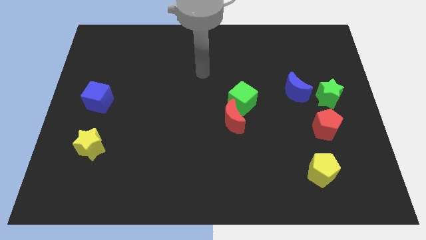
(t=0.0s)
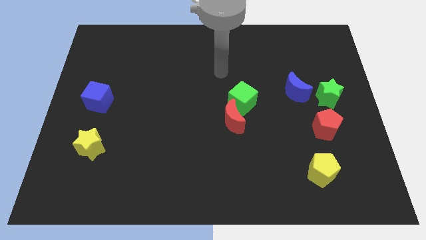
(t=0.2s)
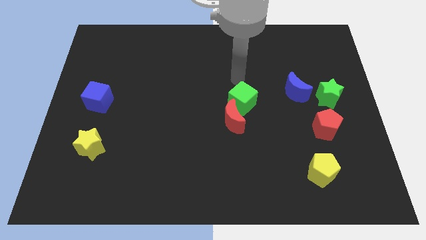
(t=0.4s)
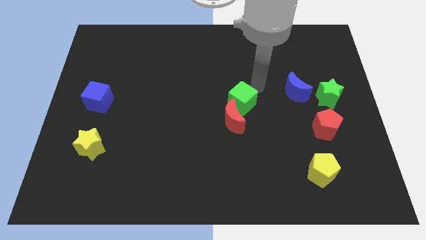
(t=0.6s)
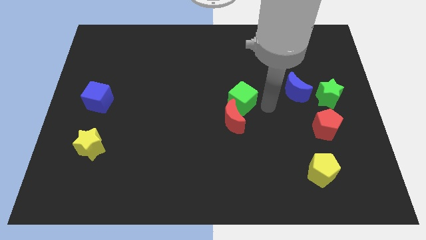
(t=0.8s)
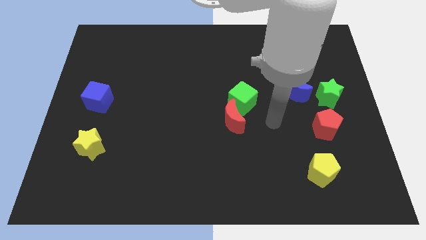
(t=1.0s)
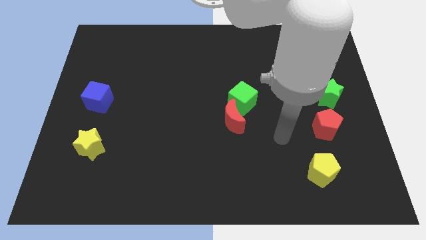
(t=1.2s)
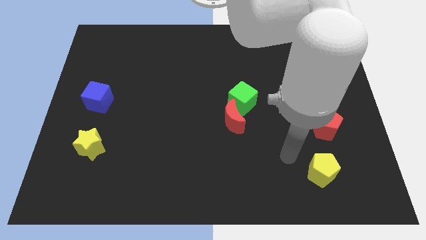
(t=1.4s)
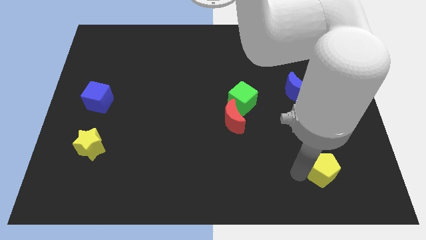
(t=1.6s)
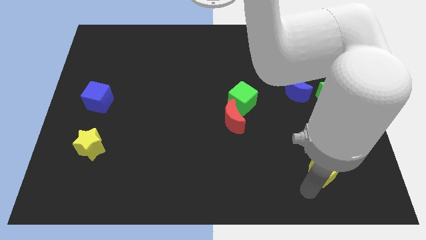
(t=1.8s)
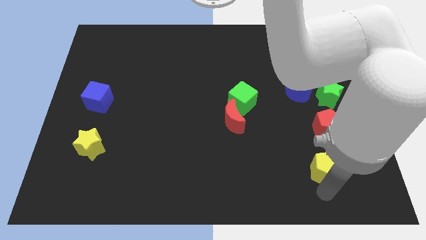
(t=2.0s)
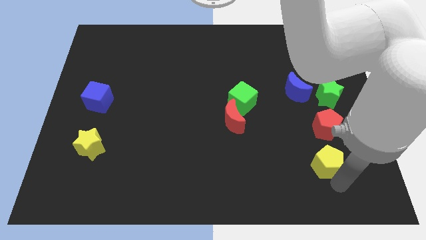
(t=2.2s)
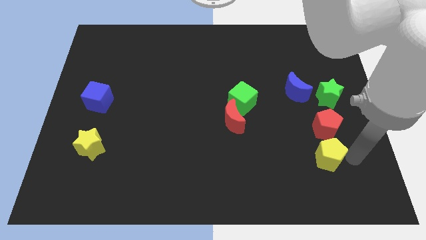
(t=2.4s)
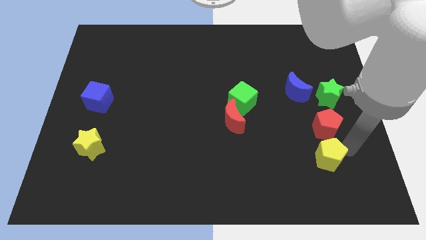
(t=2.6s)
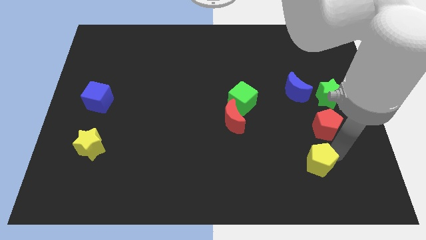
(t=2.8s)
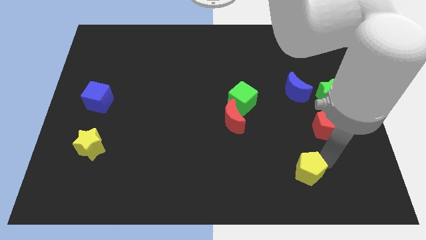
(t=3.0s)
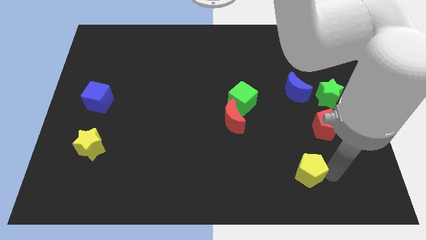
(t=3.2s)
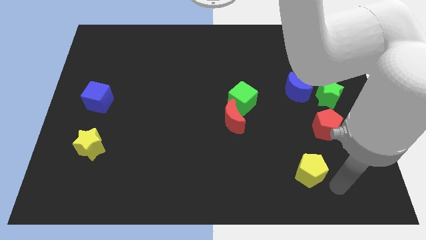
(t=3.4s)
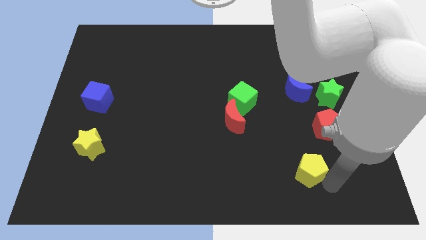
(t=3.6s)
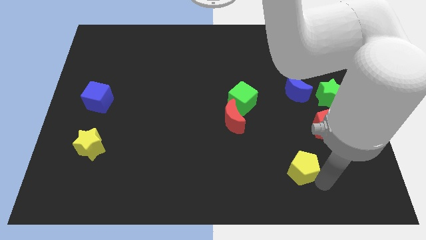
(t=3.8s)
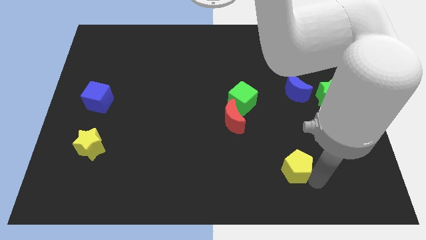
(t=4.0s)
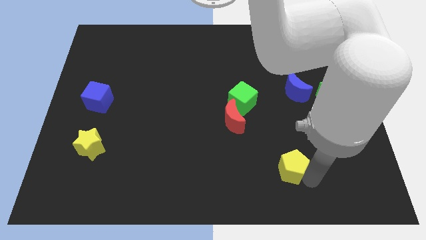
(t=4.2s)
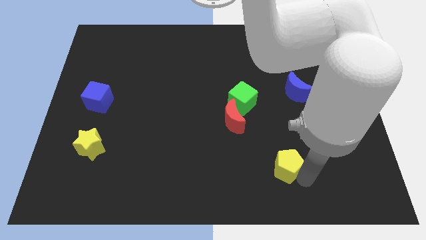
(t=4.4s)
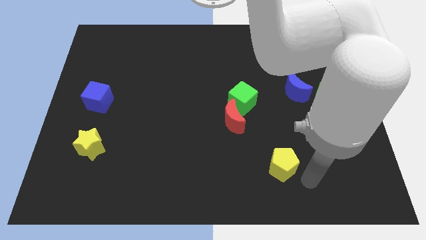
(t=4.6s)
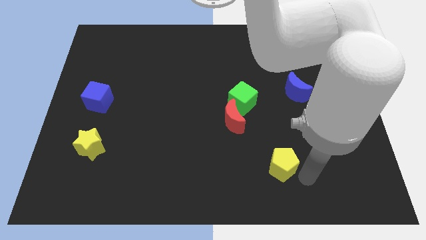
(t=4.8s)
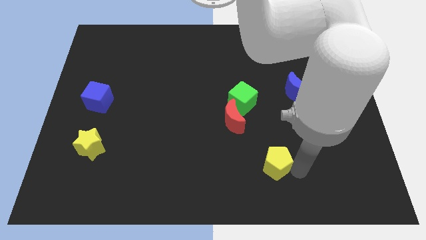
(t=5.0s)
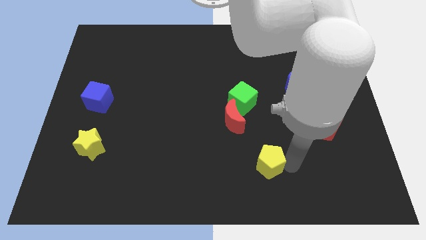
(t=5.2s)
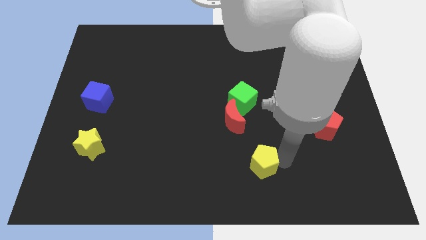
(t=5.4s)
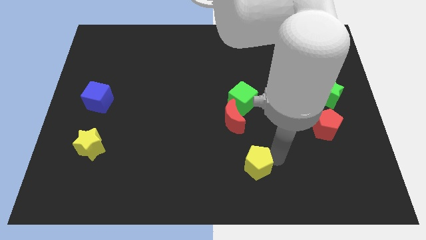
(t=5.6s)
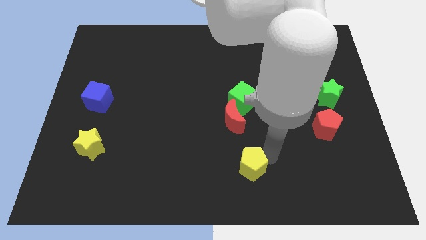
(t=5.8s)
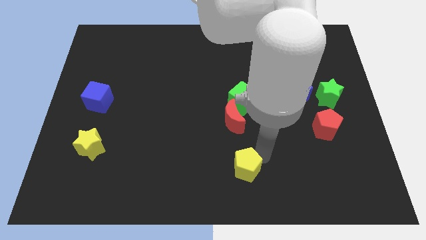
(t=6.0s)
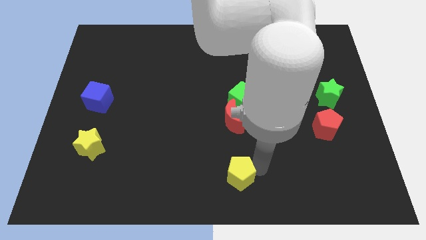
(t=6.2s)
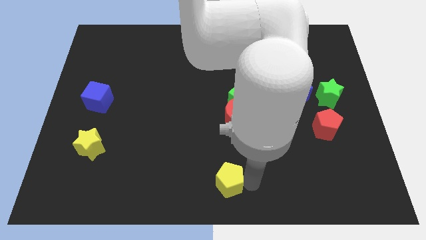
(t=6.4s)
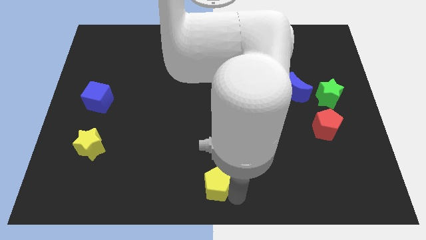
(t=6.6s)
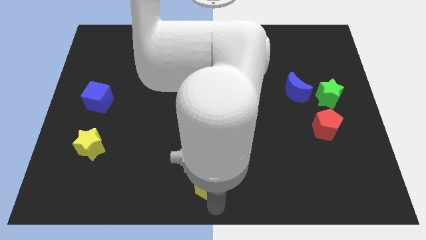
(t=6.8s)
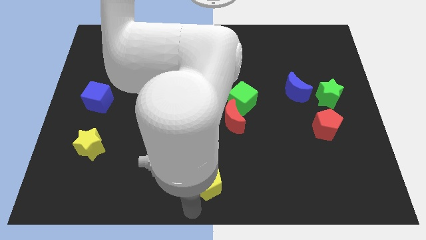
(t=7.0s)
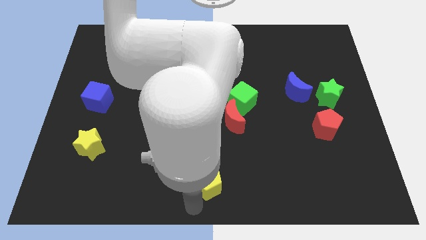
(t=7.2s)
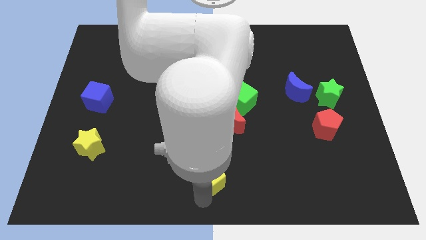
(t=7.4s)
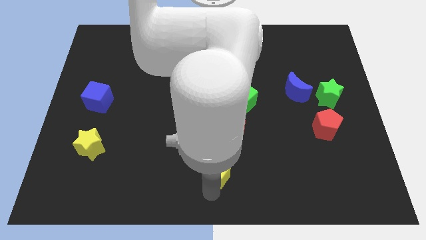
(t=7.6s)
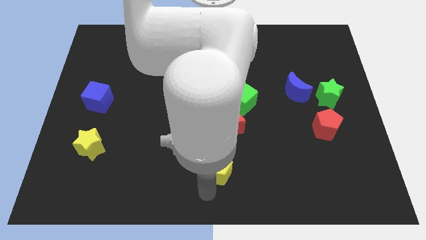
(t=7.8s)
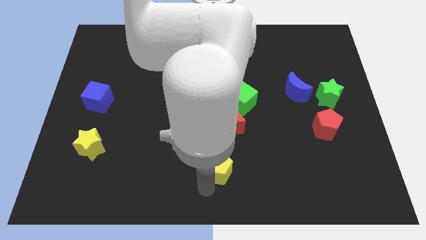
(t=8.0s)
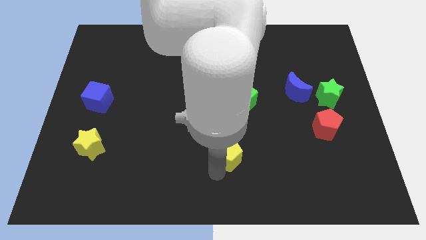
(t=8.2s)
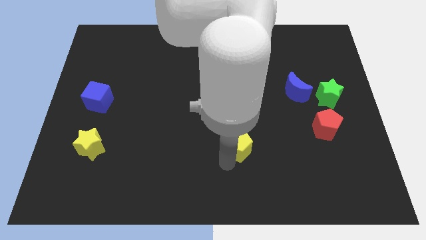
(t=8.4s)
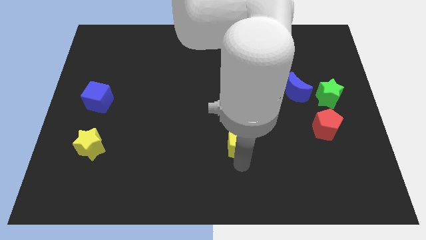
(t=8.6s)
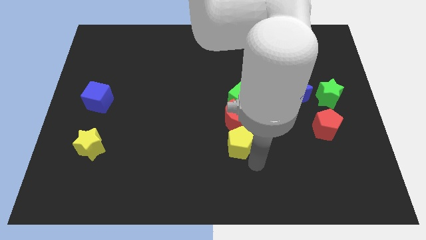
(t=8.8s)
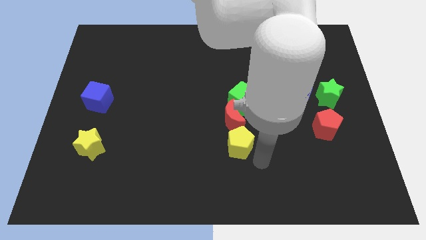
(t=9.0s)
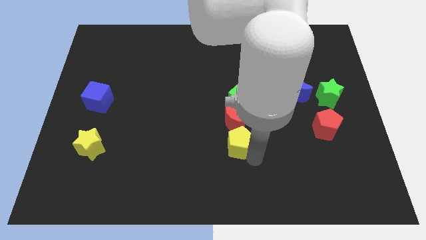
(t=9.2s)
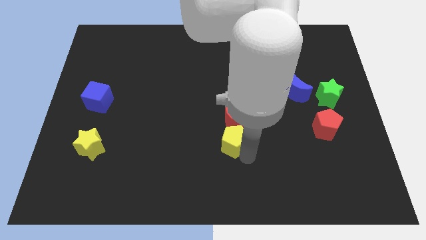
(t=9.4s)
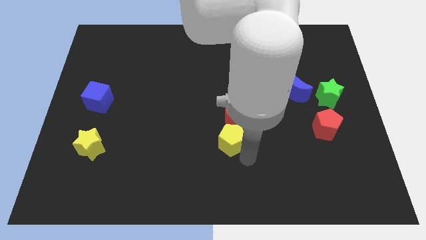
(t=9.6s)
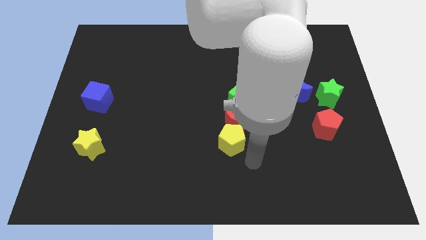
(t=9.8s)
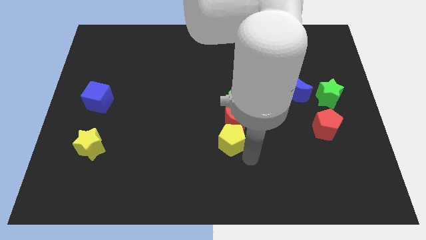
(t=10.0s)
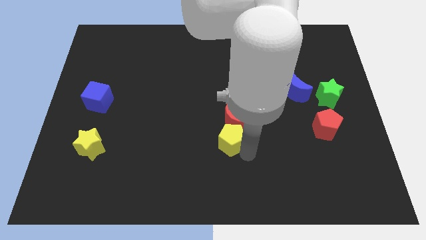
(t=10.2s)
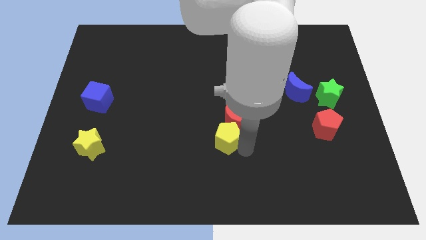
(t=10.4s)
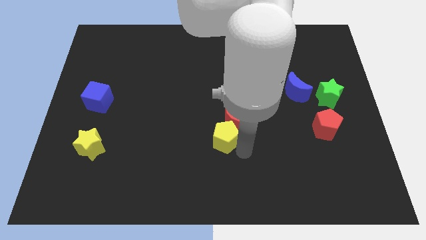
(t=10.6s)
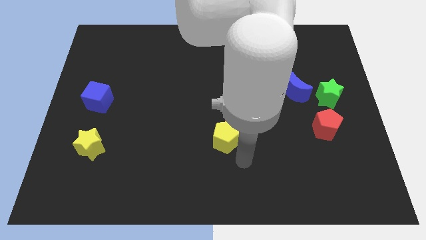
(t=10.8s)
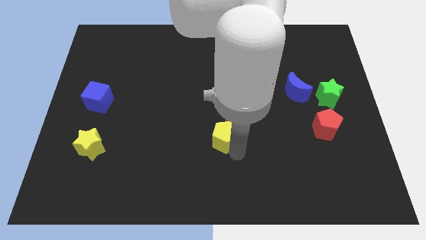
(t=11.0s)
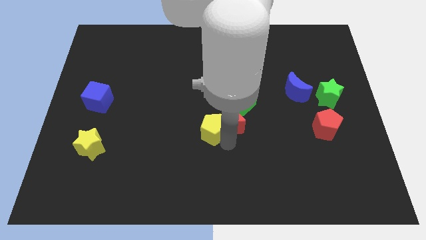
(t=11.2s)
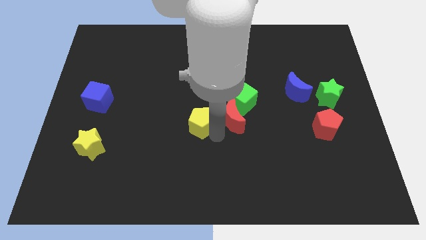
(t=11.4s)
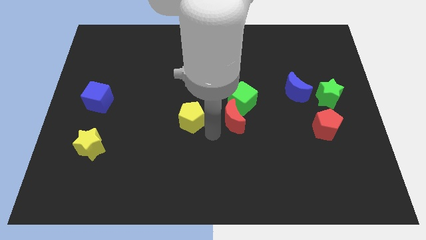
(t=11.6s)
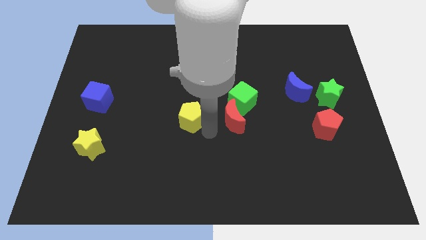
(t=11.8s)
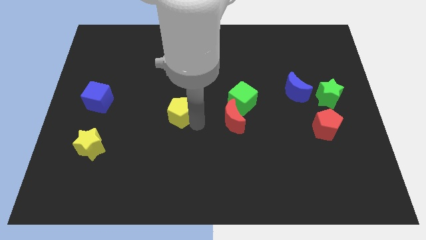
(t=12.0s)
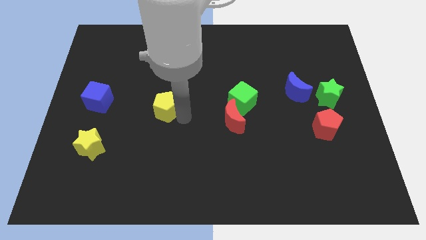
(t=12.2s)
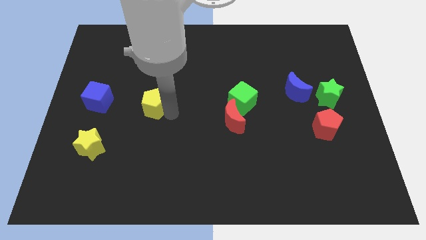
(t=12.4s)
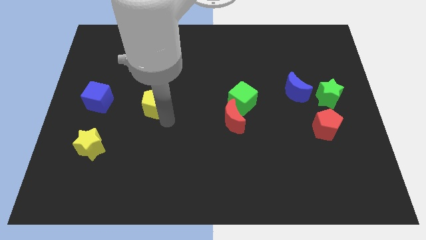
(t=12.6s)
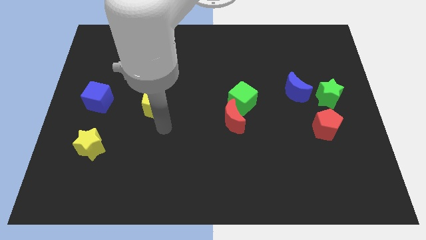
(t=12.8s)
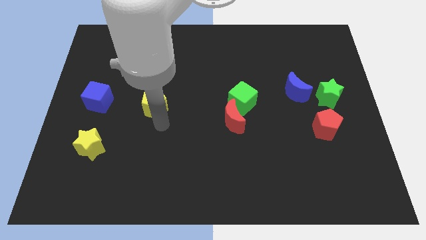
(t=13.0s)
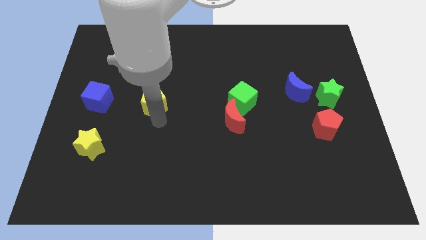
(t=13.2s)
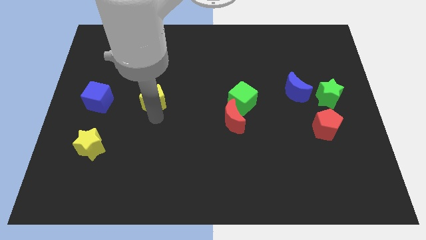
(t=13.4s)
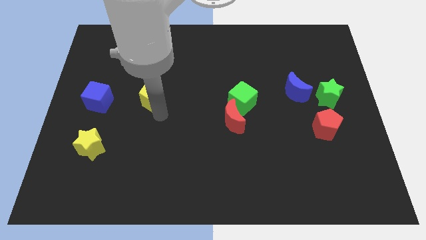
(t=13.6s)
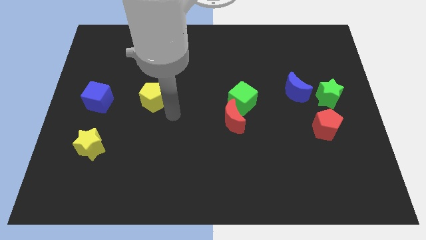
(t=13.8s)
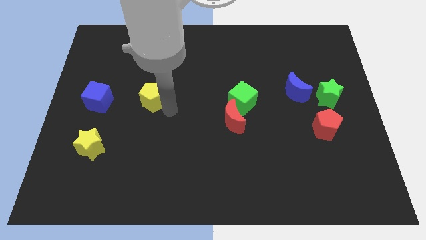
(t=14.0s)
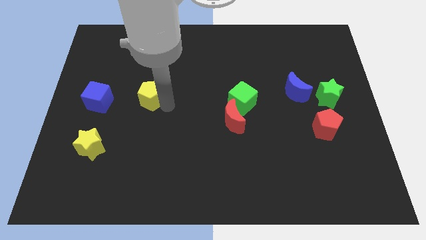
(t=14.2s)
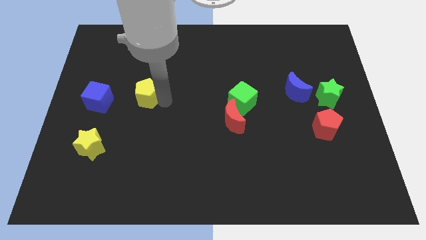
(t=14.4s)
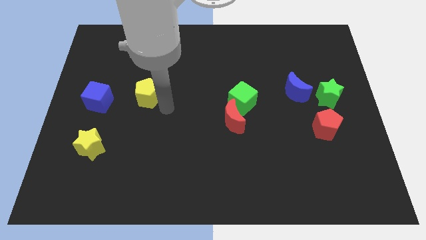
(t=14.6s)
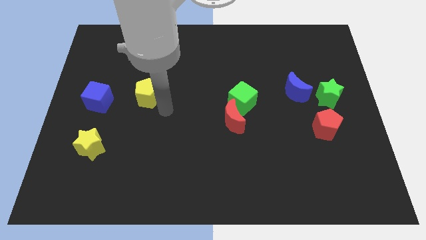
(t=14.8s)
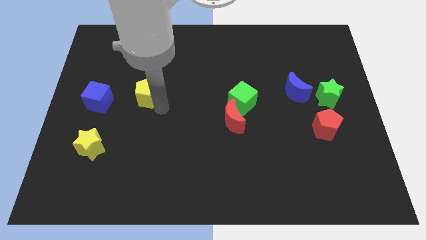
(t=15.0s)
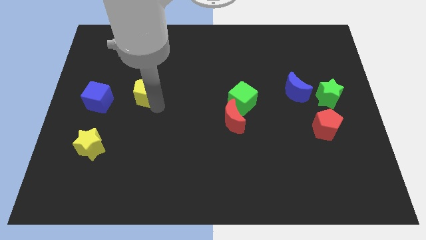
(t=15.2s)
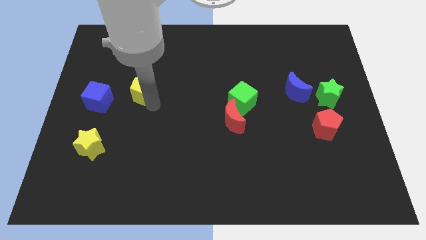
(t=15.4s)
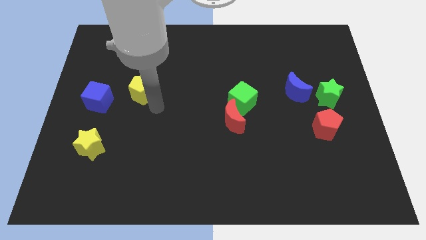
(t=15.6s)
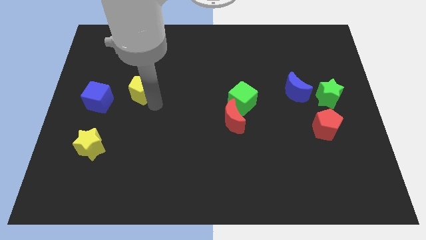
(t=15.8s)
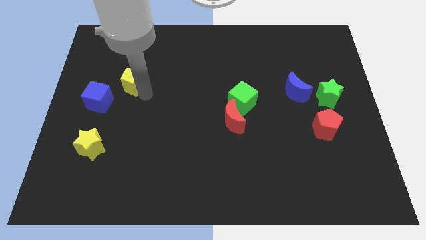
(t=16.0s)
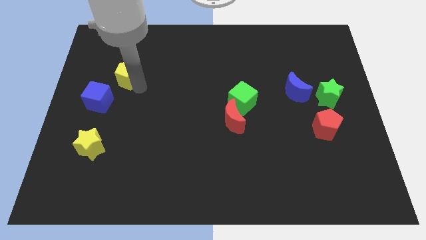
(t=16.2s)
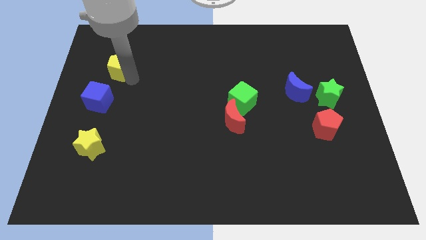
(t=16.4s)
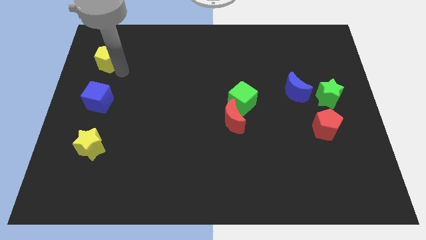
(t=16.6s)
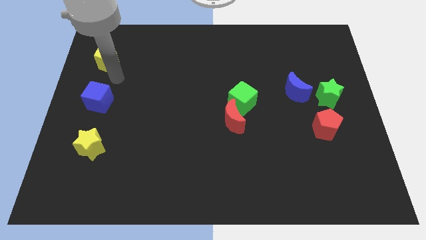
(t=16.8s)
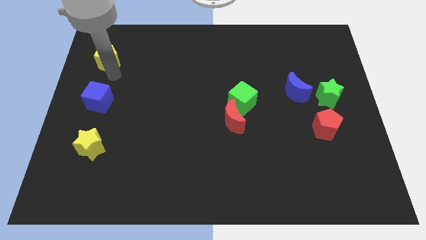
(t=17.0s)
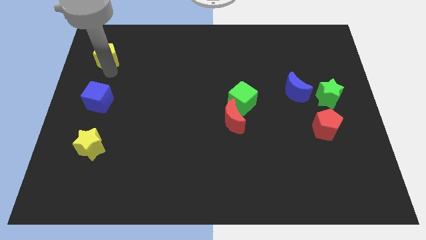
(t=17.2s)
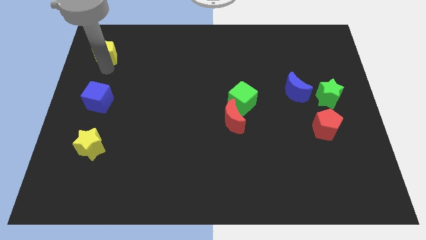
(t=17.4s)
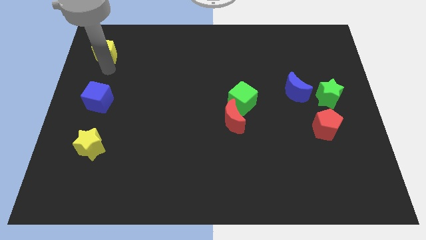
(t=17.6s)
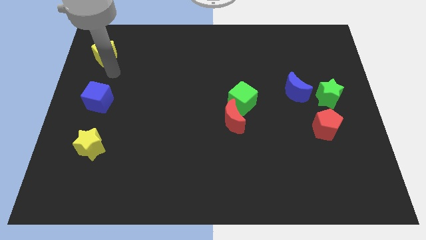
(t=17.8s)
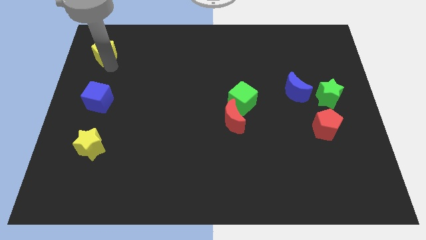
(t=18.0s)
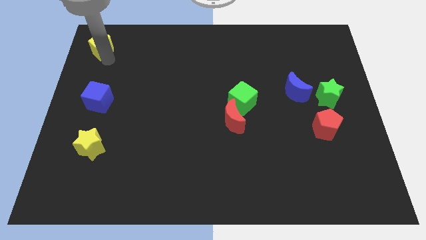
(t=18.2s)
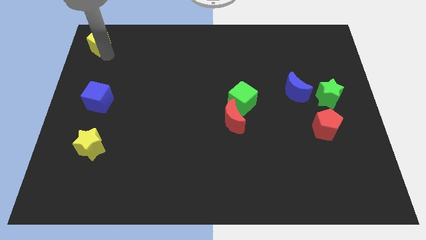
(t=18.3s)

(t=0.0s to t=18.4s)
slide the yellow pentagon to the top left corner
